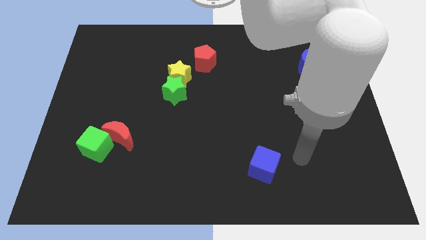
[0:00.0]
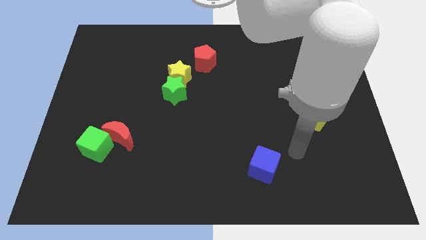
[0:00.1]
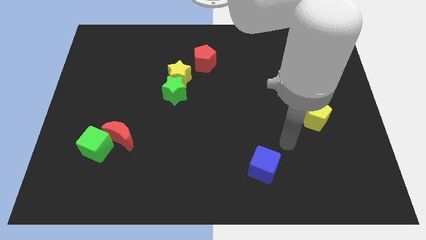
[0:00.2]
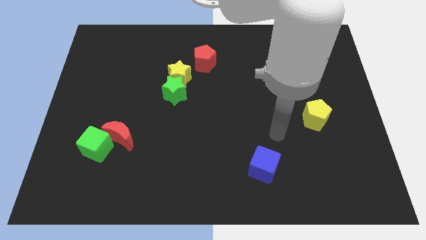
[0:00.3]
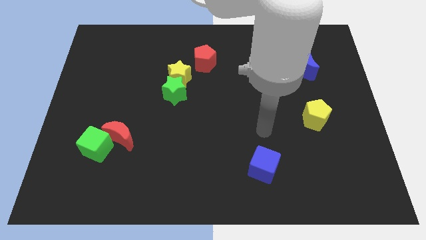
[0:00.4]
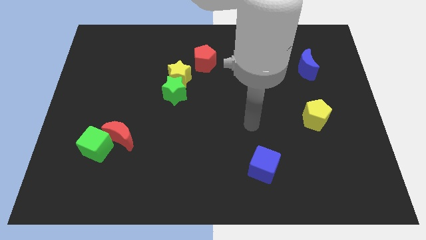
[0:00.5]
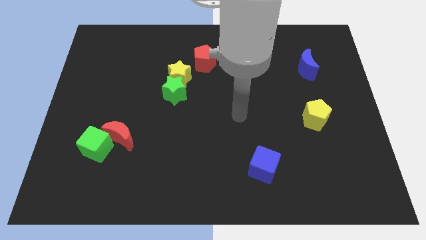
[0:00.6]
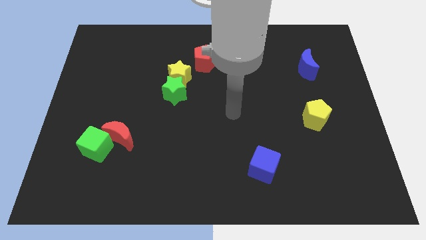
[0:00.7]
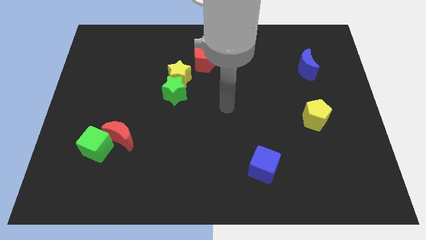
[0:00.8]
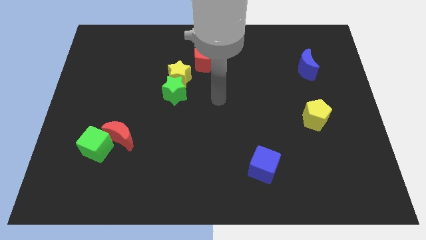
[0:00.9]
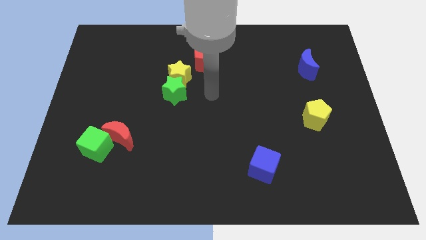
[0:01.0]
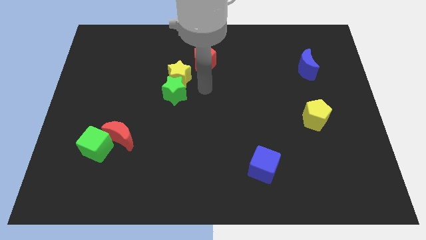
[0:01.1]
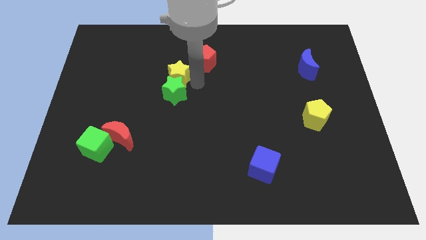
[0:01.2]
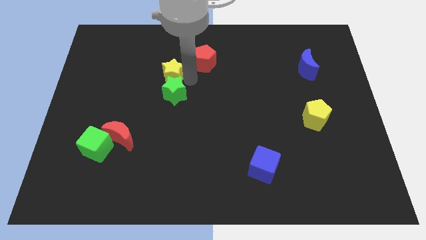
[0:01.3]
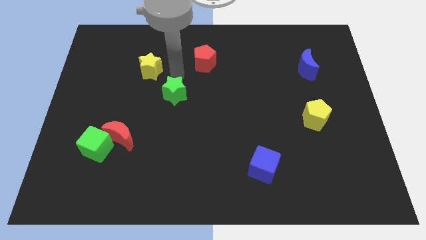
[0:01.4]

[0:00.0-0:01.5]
pull the green star apart from the yellow star

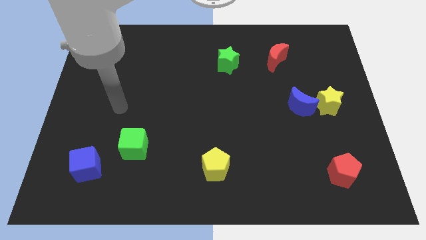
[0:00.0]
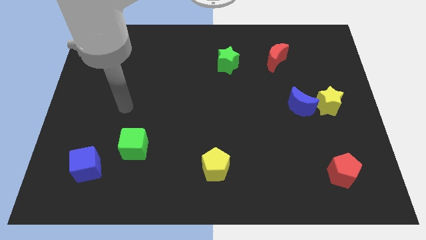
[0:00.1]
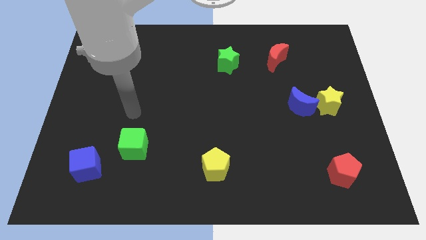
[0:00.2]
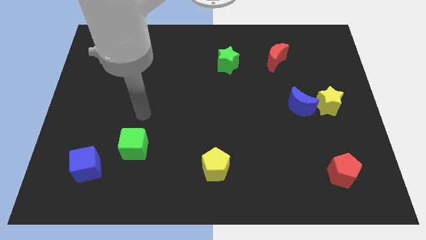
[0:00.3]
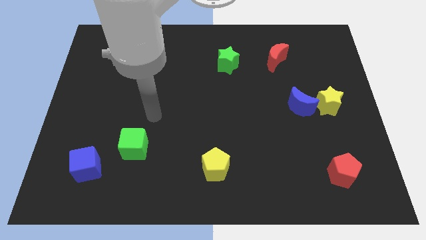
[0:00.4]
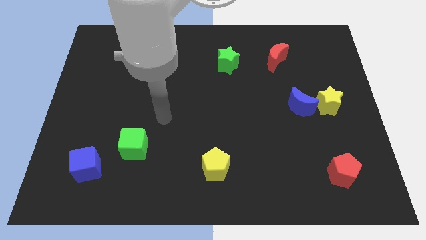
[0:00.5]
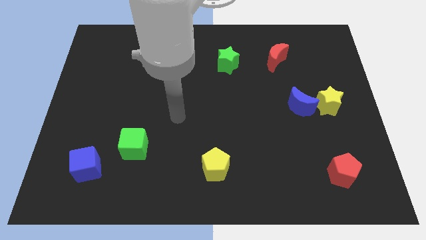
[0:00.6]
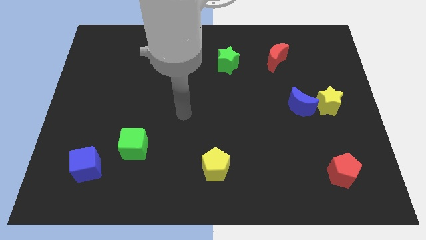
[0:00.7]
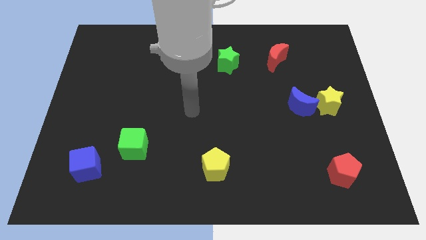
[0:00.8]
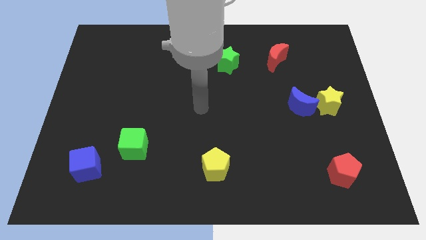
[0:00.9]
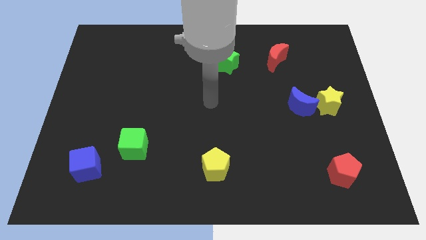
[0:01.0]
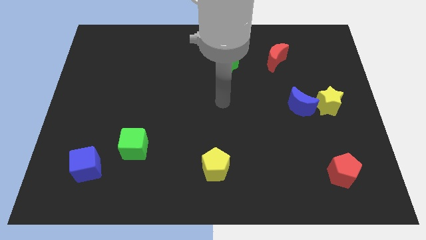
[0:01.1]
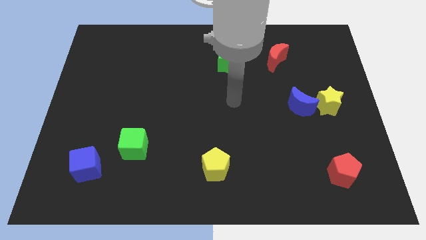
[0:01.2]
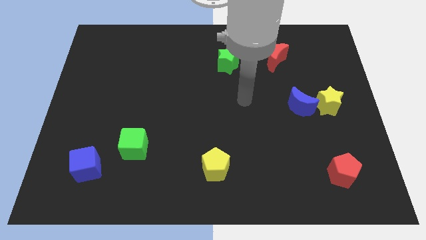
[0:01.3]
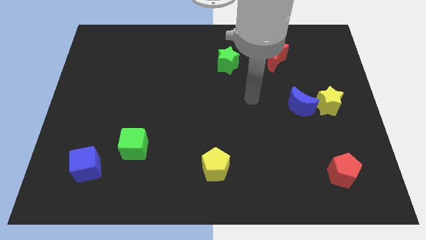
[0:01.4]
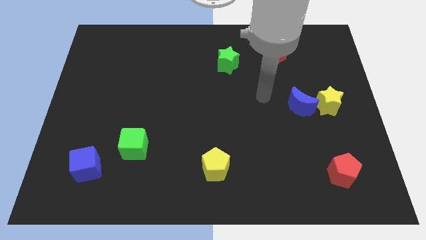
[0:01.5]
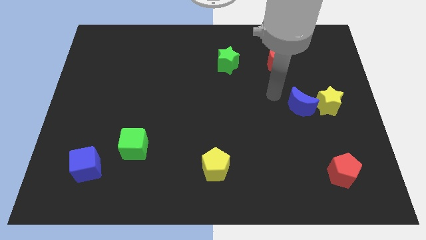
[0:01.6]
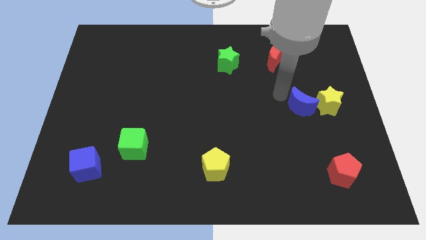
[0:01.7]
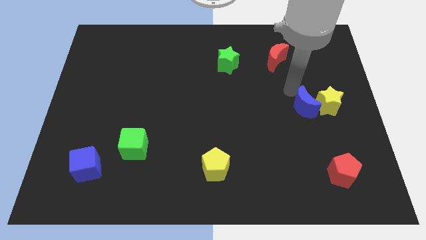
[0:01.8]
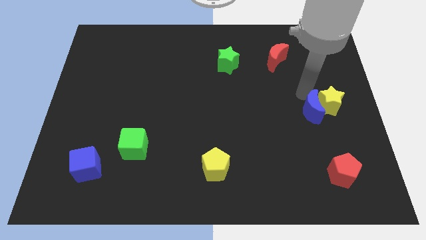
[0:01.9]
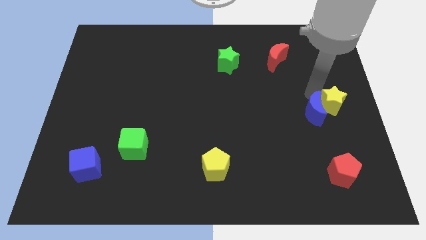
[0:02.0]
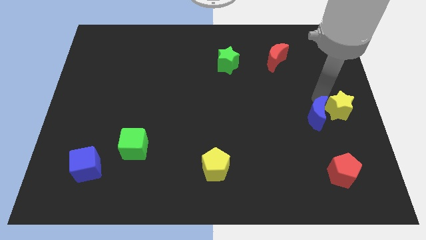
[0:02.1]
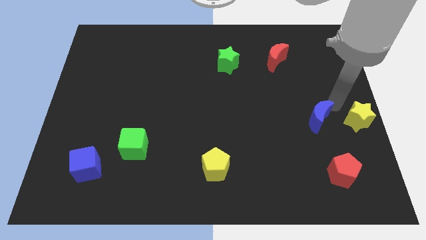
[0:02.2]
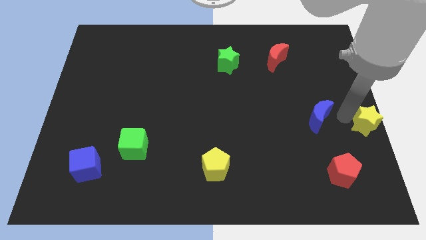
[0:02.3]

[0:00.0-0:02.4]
separate the blue moon from the yellow star

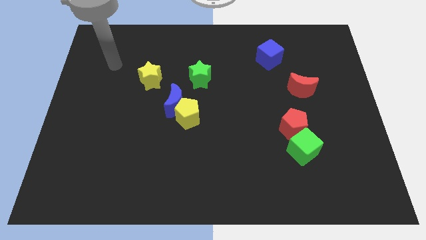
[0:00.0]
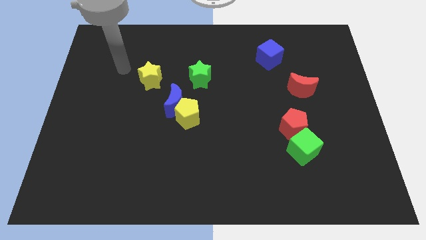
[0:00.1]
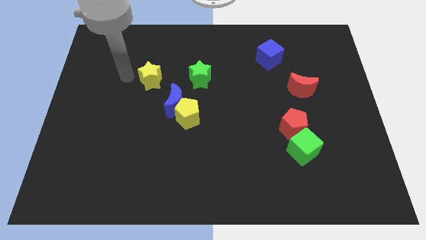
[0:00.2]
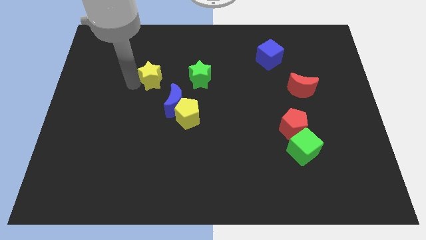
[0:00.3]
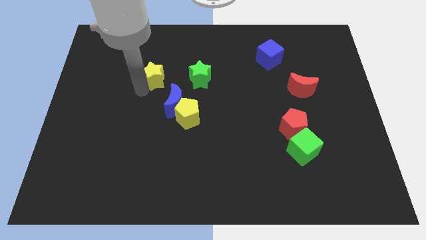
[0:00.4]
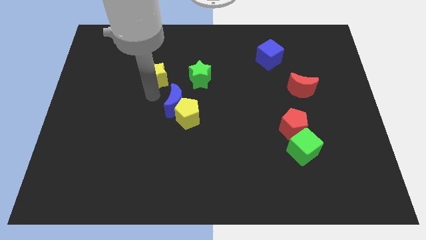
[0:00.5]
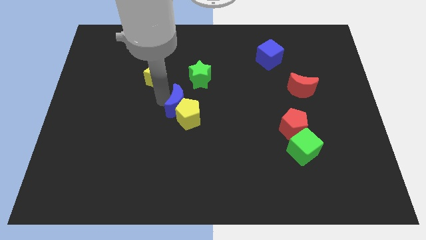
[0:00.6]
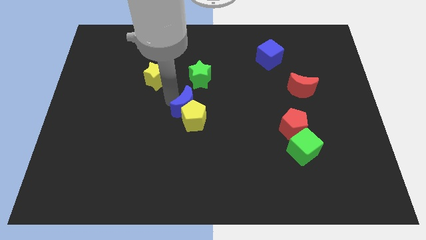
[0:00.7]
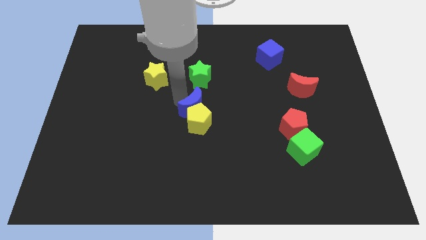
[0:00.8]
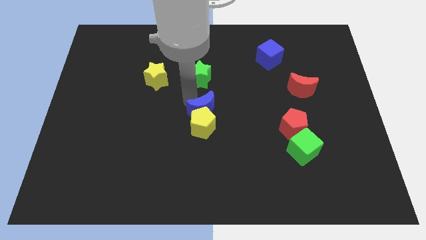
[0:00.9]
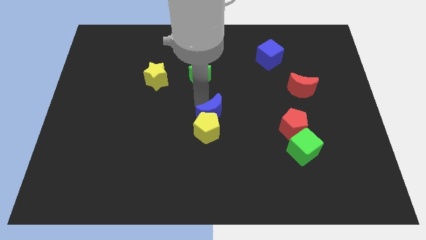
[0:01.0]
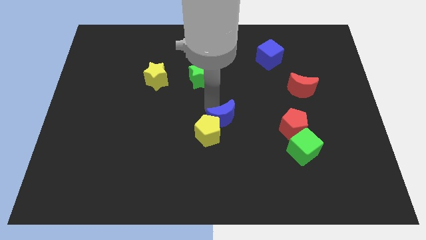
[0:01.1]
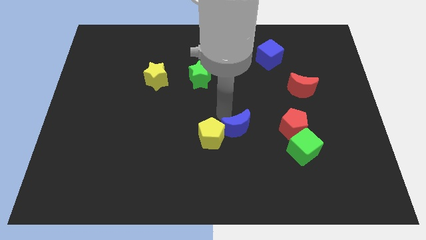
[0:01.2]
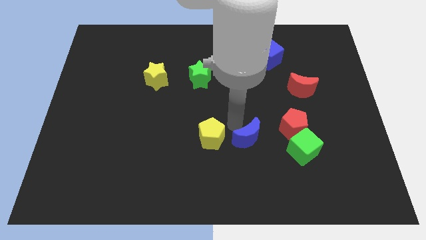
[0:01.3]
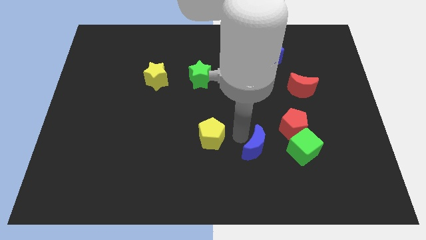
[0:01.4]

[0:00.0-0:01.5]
move the yellow pentagon away from the blue moon

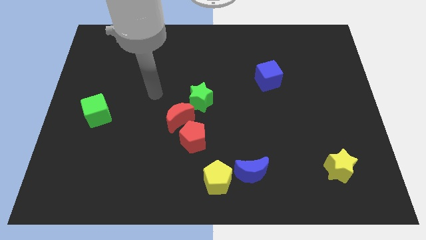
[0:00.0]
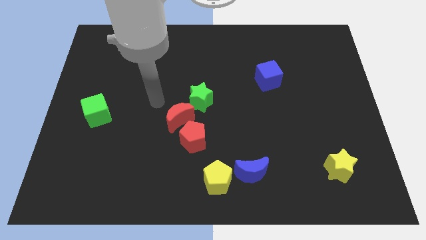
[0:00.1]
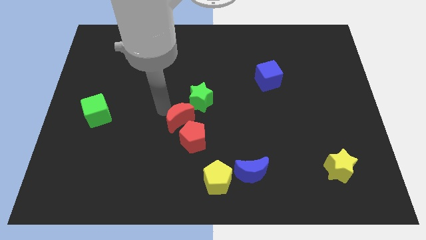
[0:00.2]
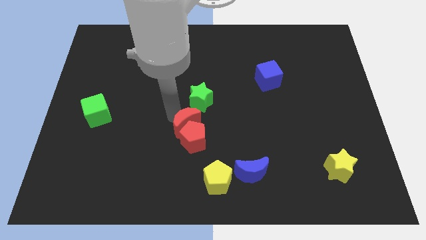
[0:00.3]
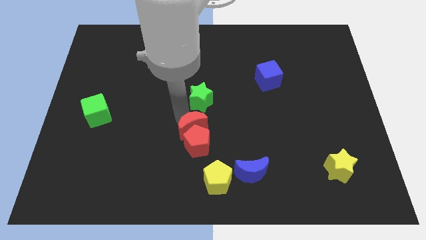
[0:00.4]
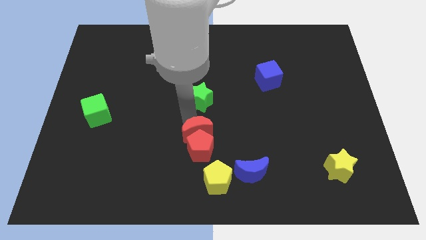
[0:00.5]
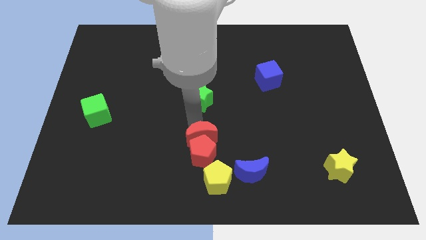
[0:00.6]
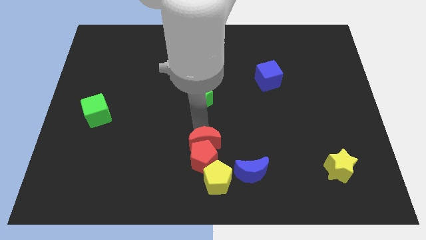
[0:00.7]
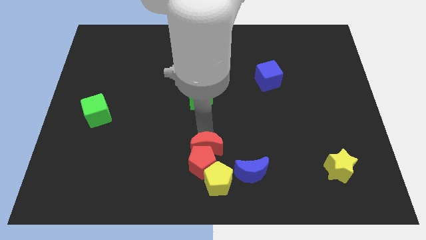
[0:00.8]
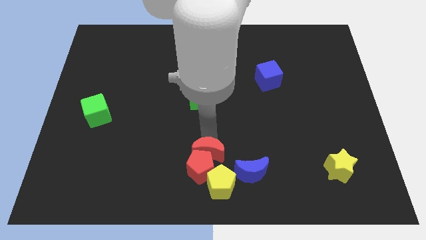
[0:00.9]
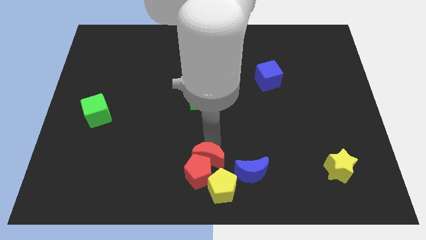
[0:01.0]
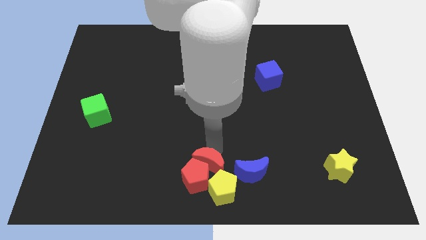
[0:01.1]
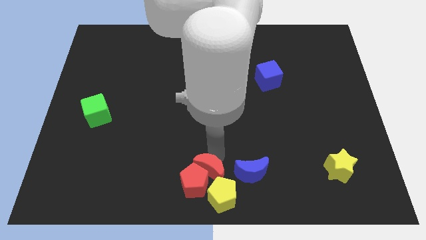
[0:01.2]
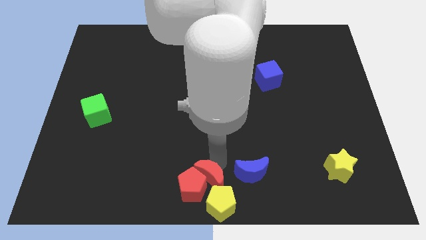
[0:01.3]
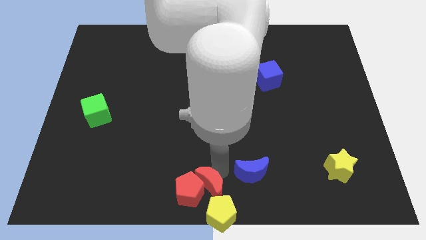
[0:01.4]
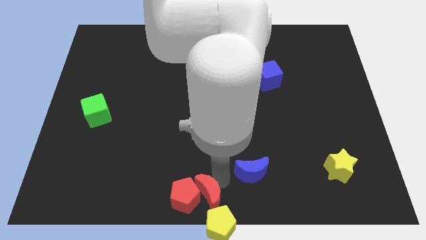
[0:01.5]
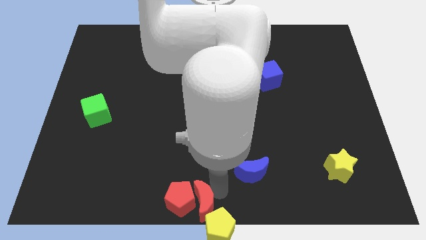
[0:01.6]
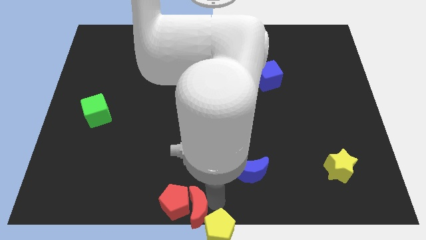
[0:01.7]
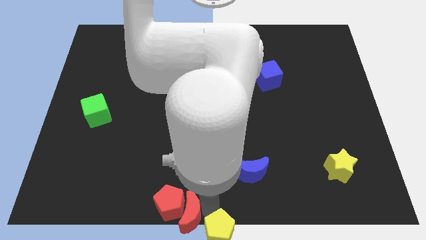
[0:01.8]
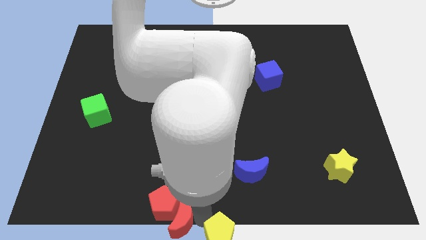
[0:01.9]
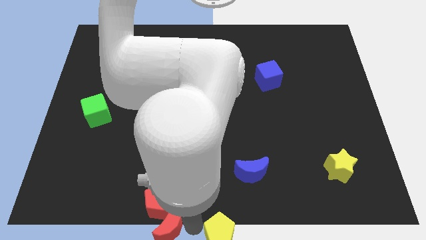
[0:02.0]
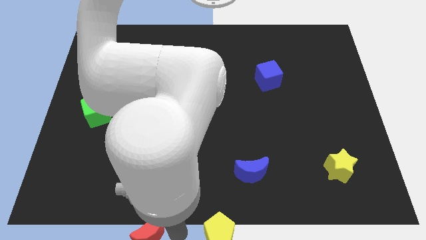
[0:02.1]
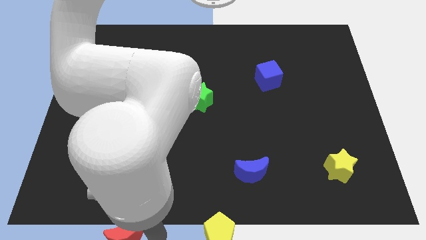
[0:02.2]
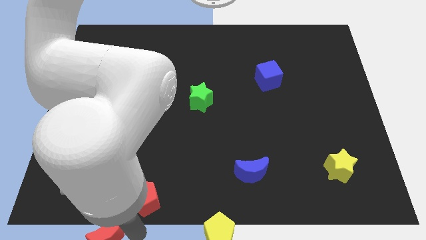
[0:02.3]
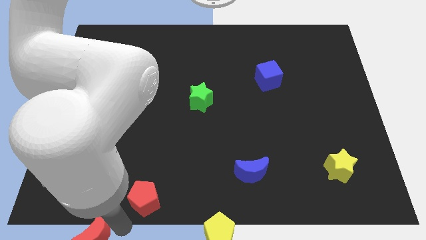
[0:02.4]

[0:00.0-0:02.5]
separate the red pentagon from the red moon

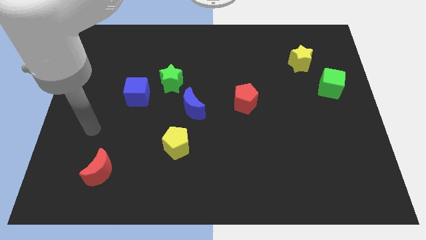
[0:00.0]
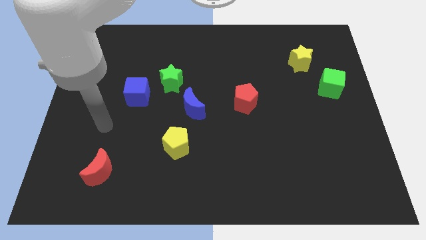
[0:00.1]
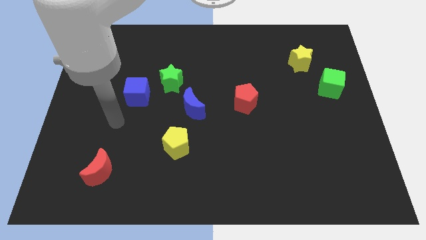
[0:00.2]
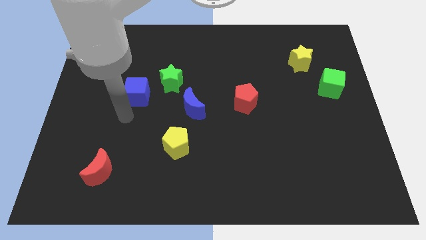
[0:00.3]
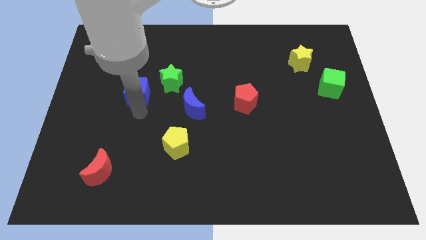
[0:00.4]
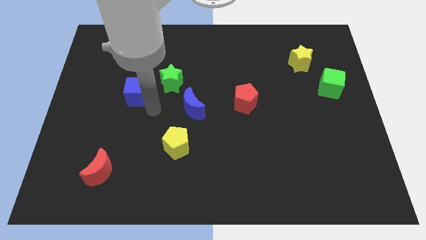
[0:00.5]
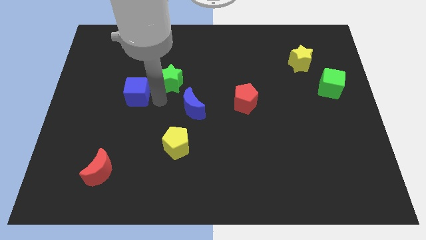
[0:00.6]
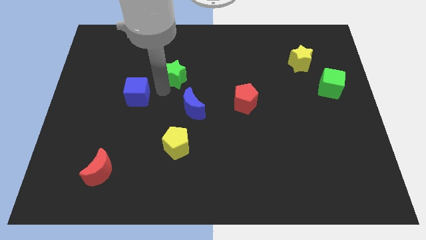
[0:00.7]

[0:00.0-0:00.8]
pull the blue cube apart from the green star

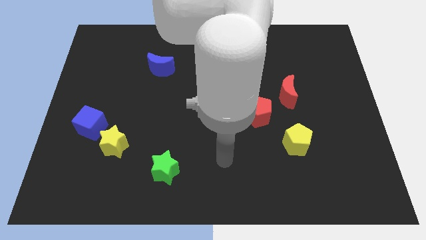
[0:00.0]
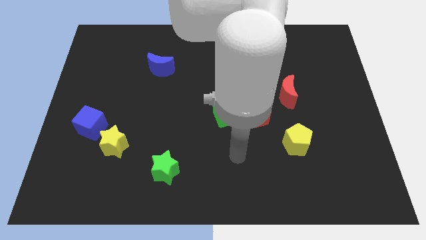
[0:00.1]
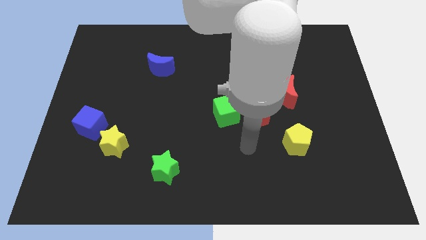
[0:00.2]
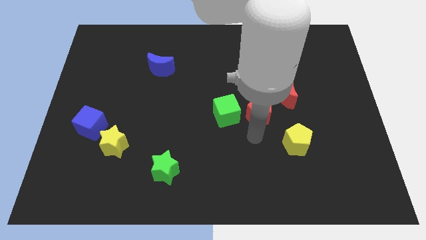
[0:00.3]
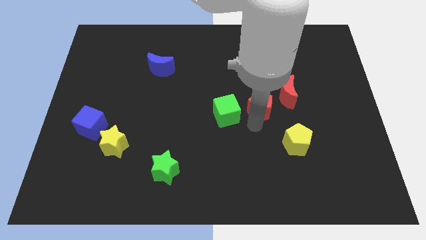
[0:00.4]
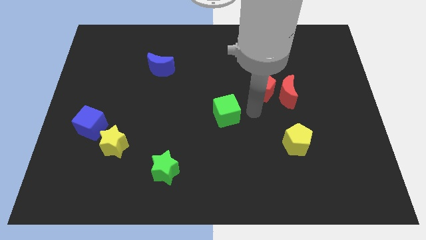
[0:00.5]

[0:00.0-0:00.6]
pull the green cube apart from the red pentagon
